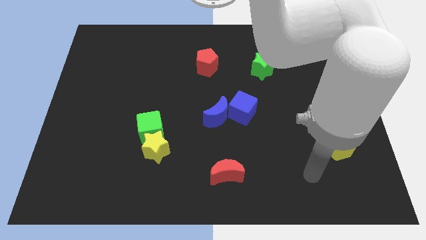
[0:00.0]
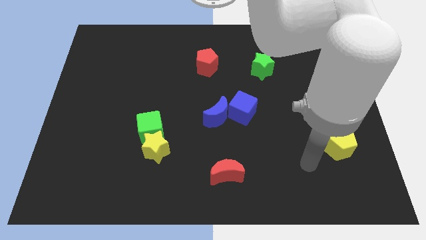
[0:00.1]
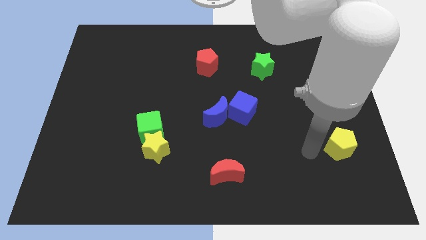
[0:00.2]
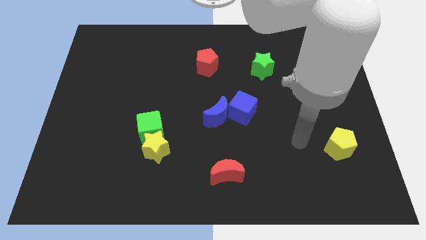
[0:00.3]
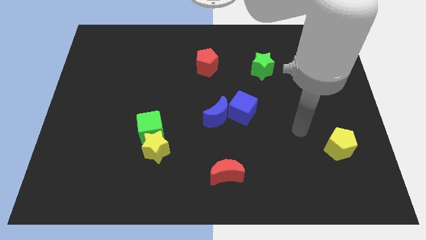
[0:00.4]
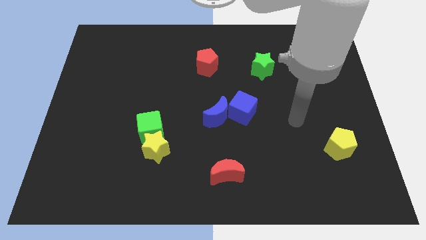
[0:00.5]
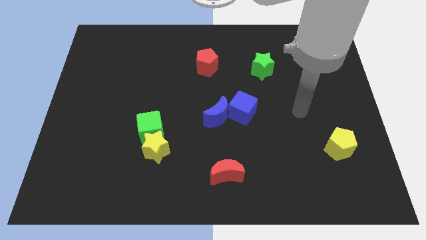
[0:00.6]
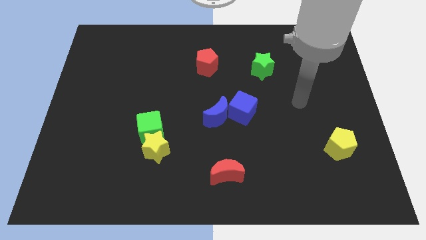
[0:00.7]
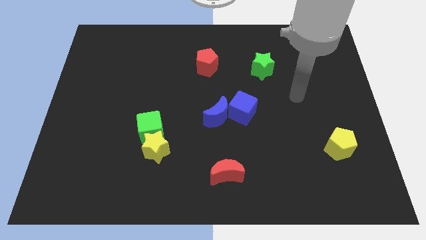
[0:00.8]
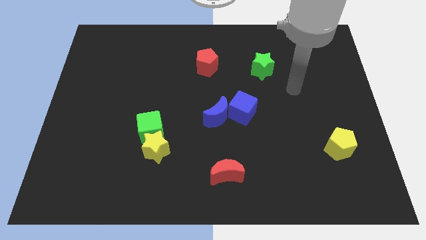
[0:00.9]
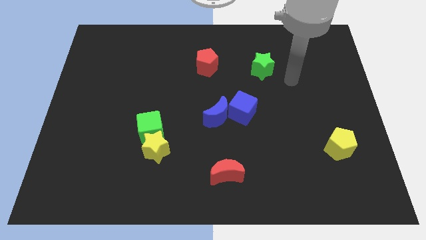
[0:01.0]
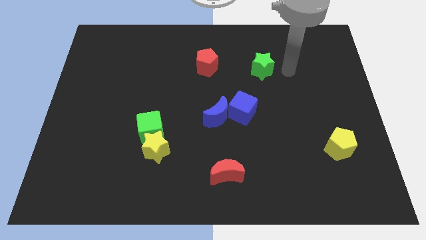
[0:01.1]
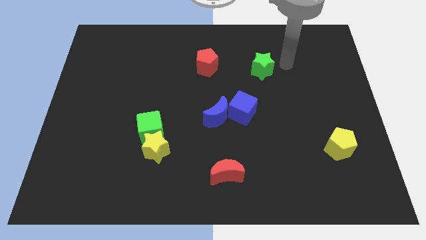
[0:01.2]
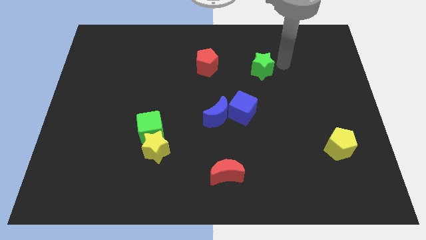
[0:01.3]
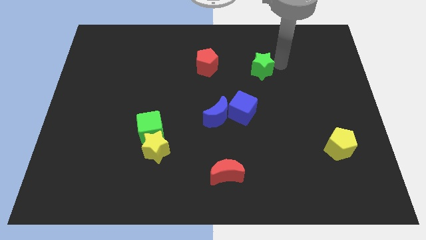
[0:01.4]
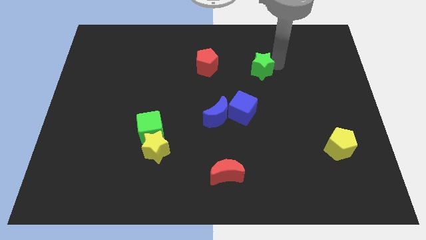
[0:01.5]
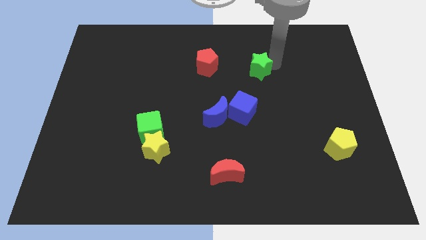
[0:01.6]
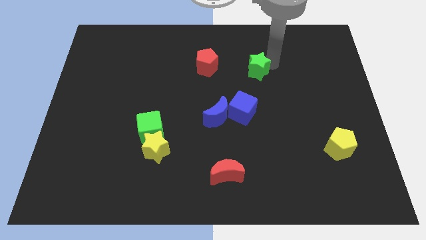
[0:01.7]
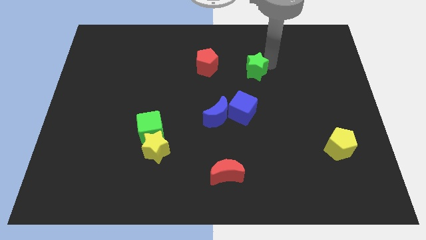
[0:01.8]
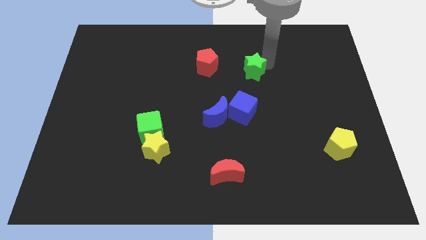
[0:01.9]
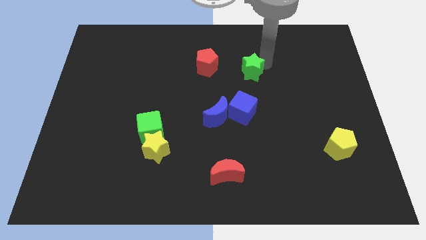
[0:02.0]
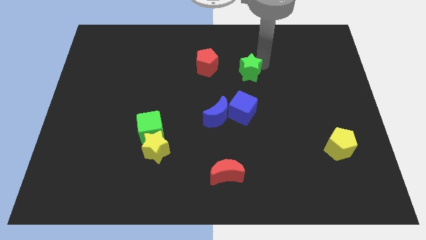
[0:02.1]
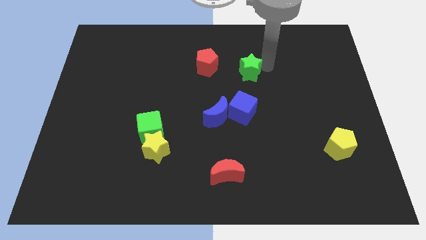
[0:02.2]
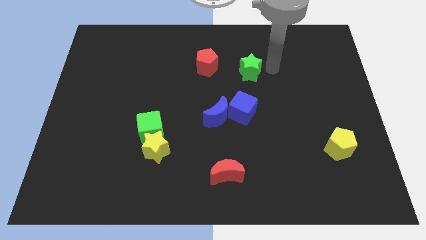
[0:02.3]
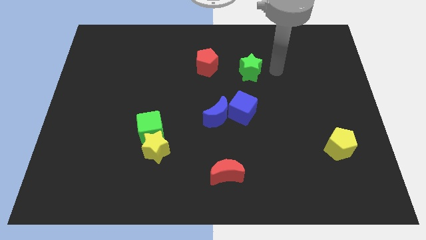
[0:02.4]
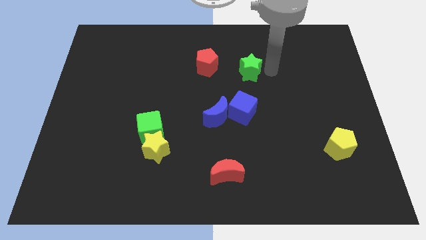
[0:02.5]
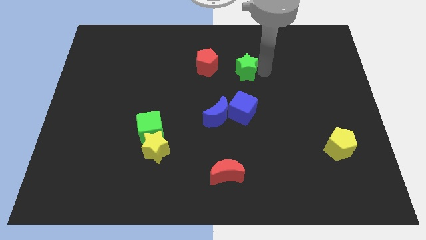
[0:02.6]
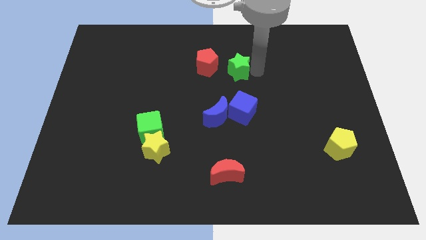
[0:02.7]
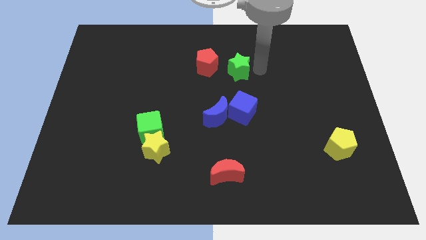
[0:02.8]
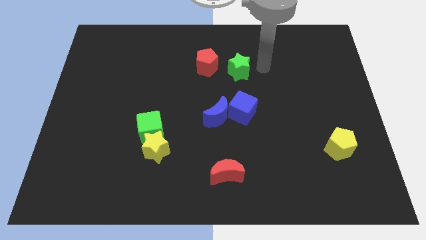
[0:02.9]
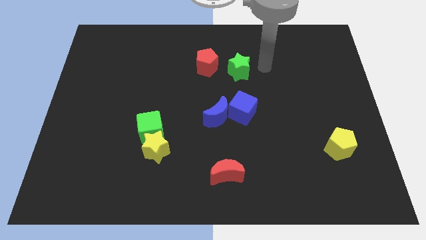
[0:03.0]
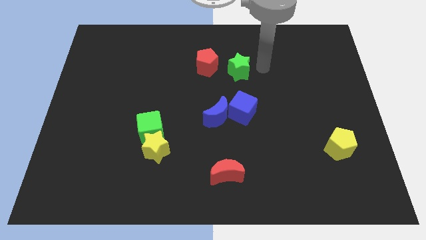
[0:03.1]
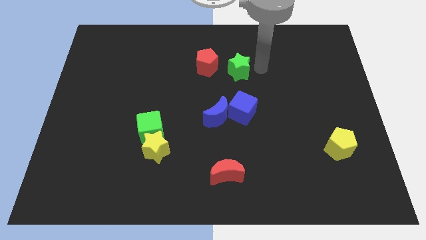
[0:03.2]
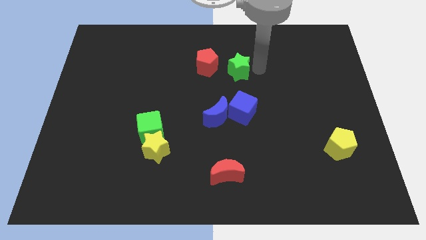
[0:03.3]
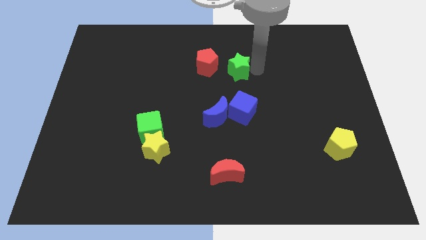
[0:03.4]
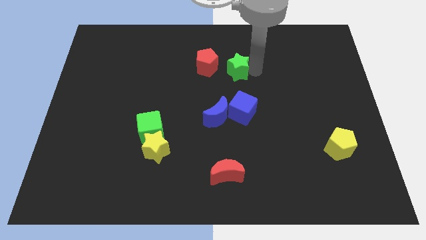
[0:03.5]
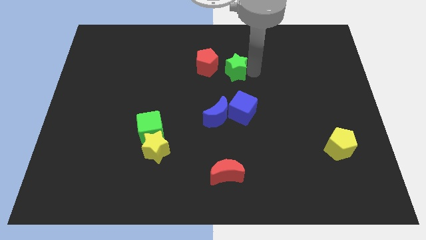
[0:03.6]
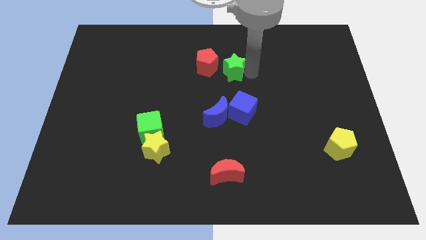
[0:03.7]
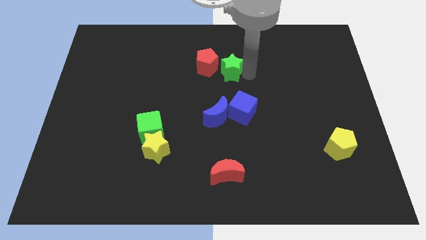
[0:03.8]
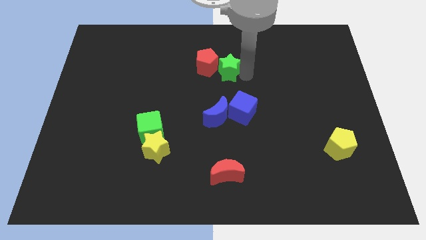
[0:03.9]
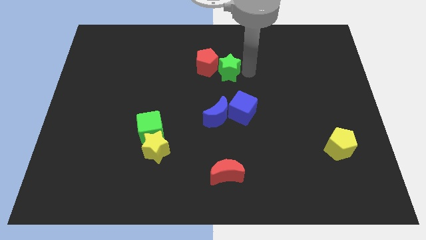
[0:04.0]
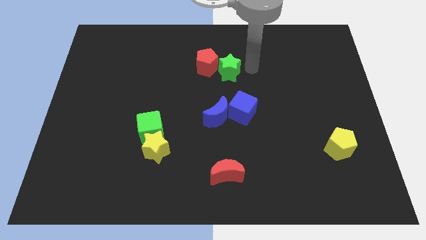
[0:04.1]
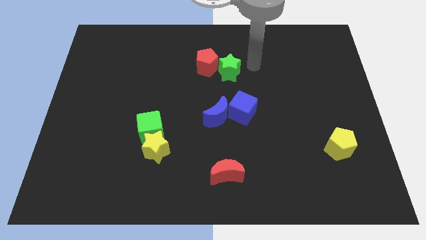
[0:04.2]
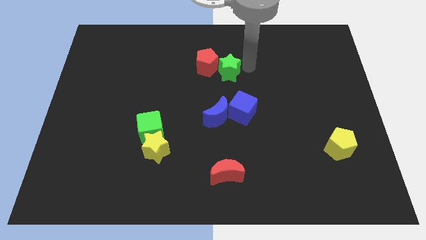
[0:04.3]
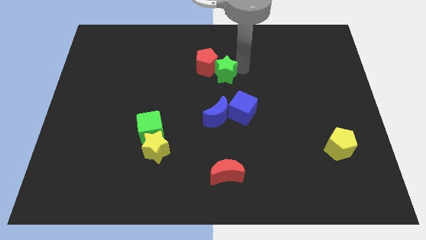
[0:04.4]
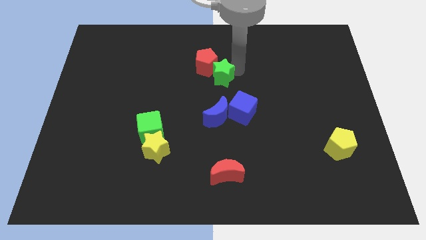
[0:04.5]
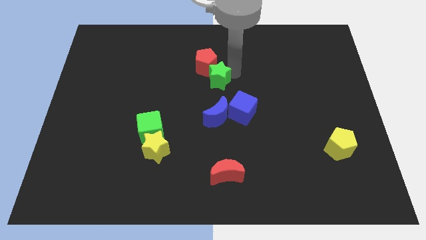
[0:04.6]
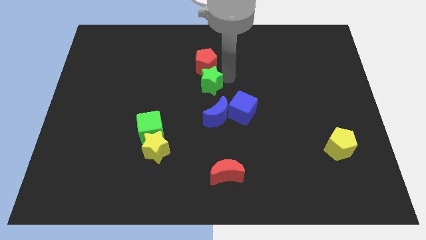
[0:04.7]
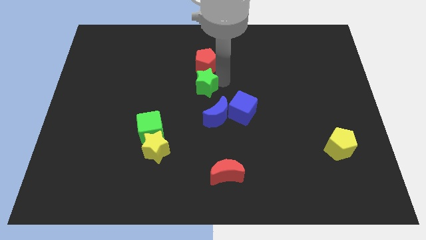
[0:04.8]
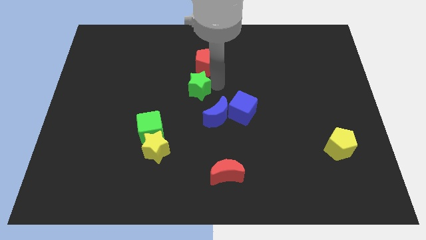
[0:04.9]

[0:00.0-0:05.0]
slide the green star to the bottom left side of the red pentagon

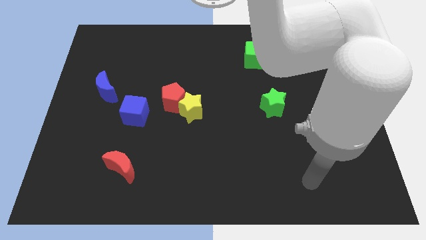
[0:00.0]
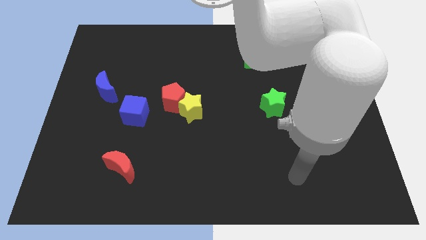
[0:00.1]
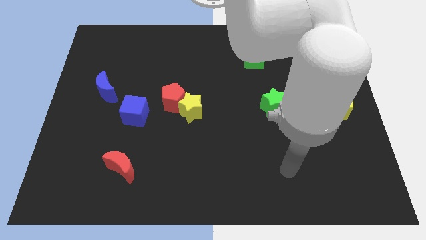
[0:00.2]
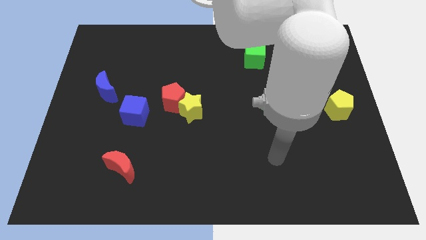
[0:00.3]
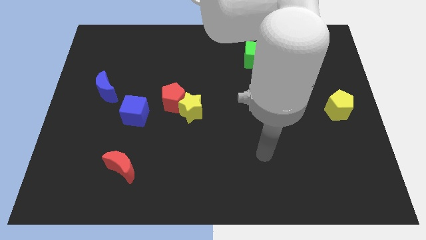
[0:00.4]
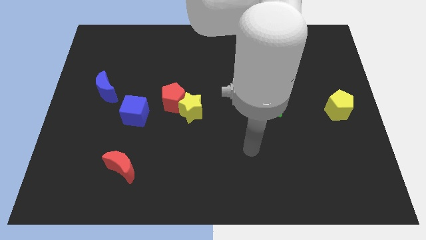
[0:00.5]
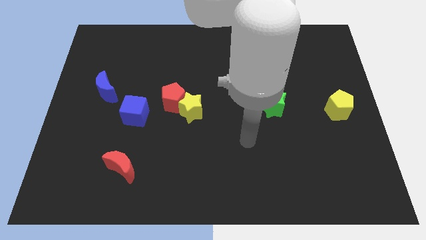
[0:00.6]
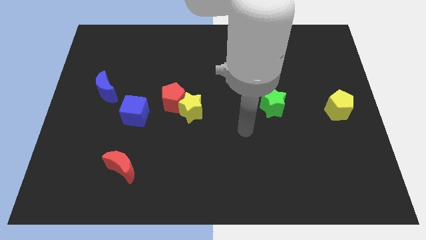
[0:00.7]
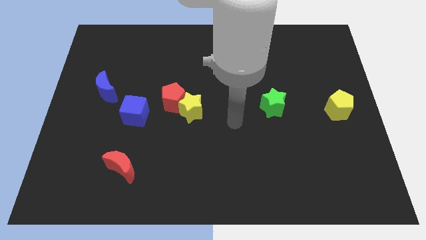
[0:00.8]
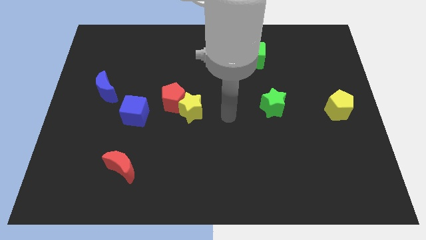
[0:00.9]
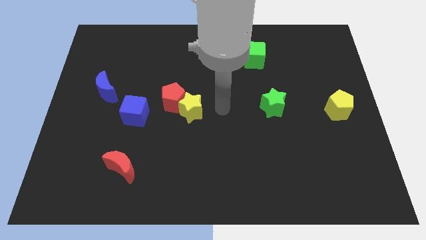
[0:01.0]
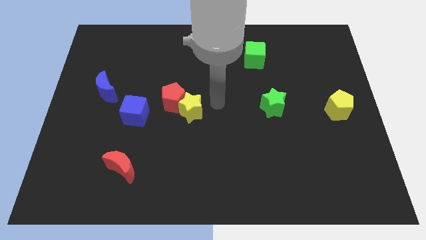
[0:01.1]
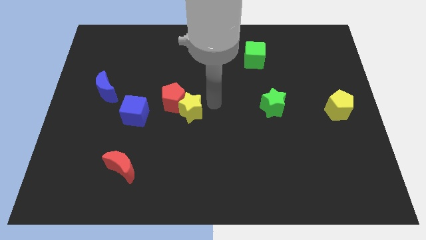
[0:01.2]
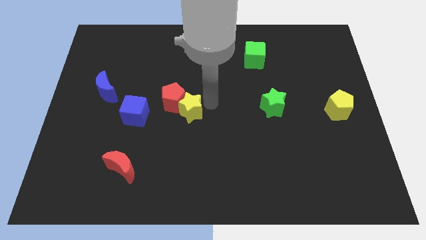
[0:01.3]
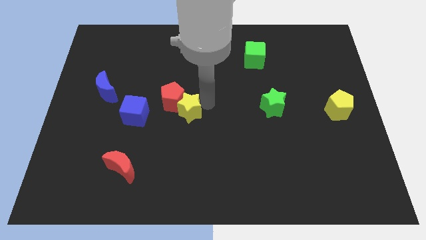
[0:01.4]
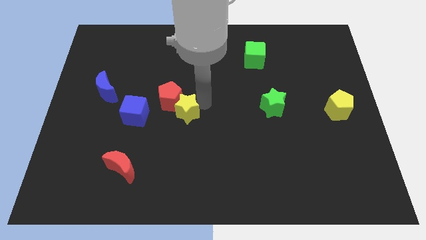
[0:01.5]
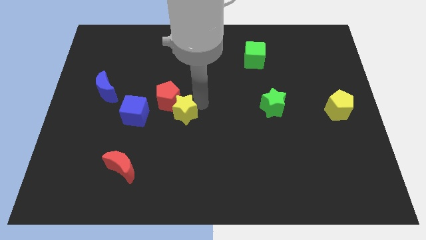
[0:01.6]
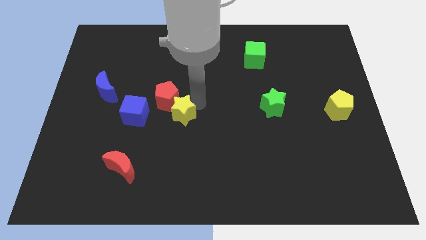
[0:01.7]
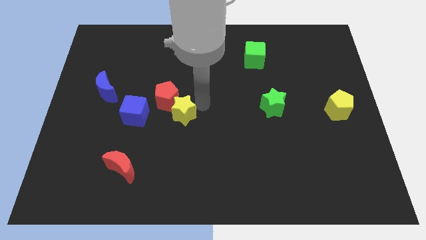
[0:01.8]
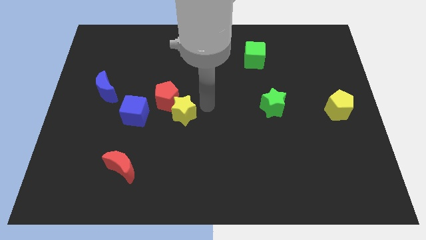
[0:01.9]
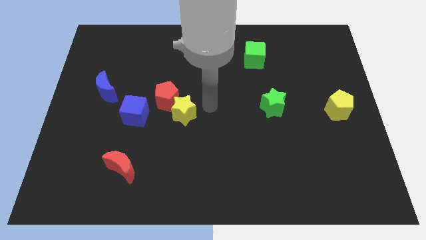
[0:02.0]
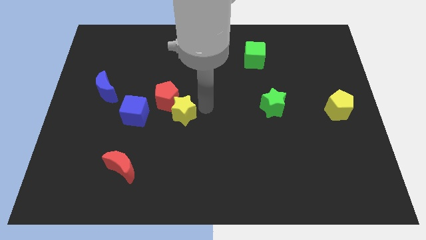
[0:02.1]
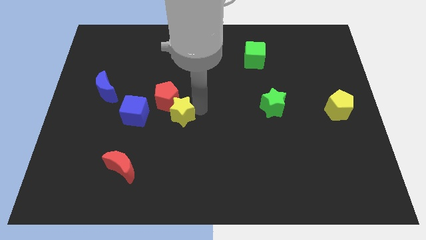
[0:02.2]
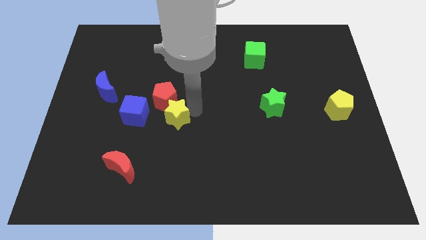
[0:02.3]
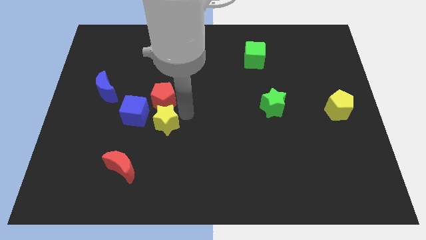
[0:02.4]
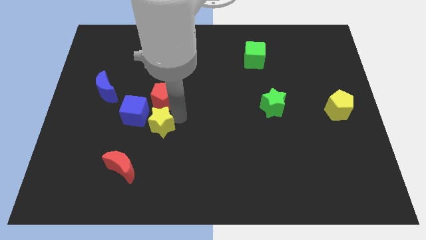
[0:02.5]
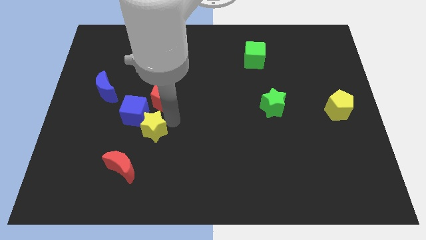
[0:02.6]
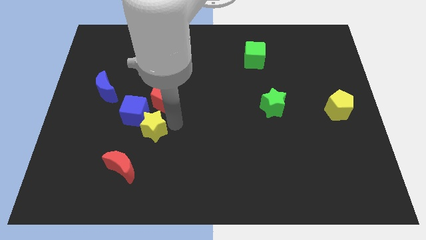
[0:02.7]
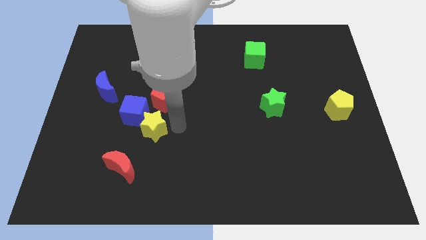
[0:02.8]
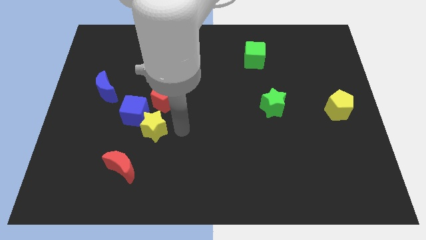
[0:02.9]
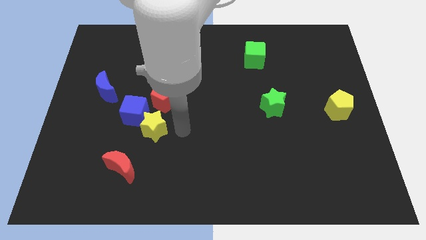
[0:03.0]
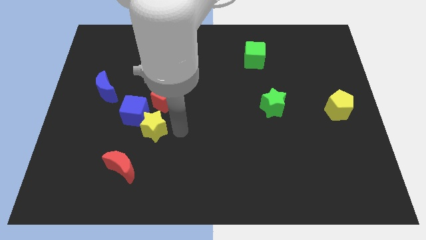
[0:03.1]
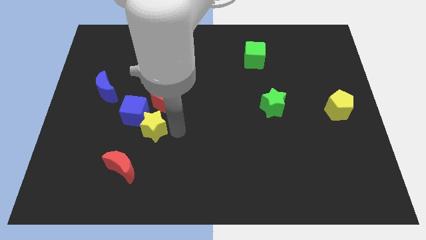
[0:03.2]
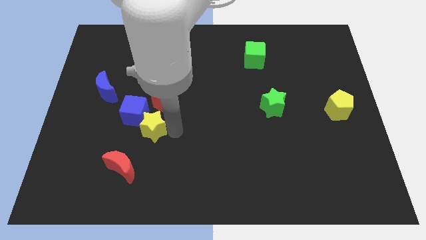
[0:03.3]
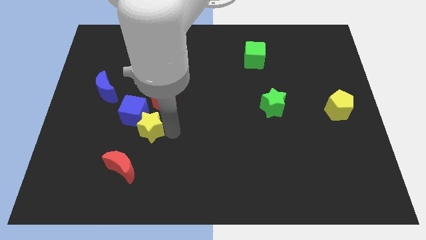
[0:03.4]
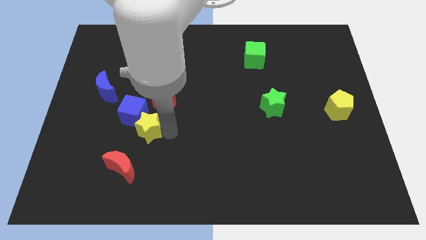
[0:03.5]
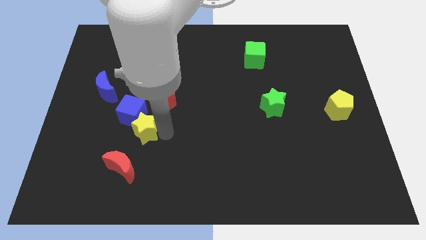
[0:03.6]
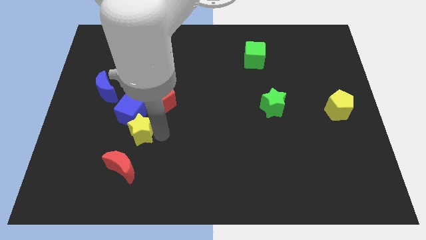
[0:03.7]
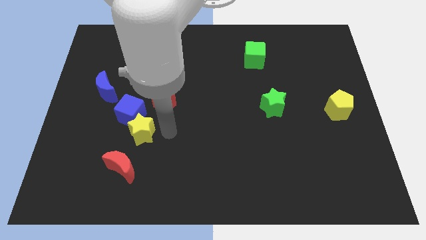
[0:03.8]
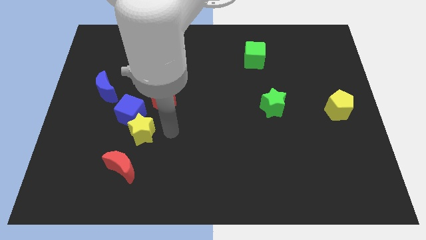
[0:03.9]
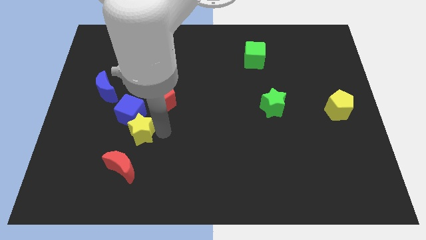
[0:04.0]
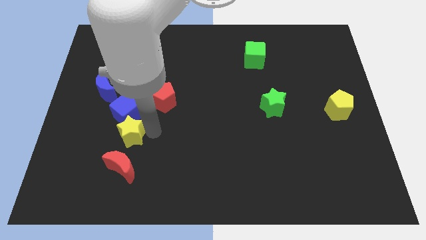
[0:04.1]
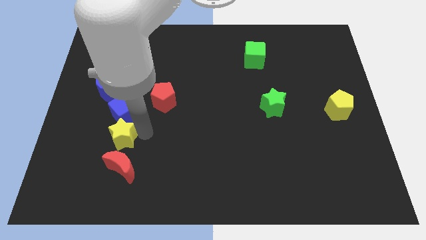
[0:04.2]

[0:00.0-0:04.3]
push the yellow star diagonally down and to the left of the blue cube
